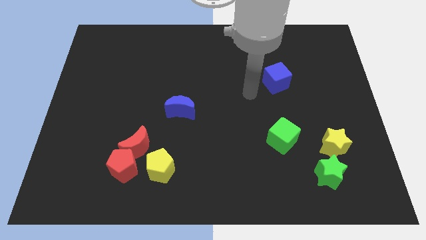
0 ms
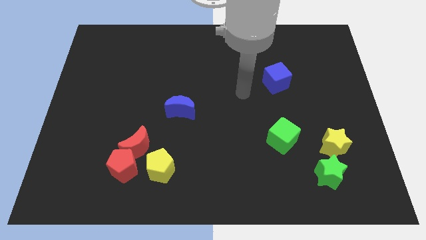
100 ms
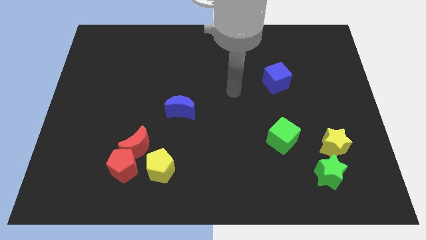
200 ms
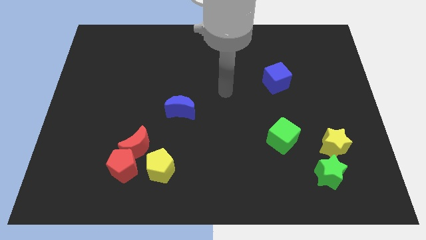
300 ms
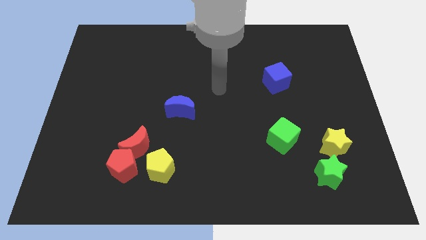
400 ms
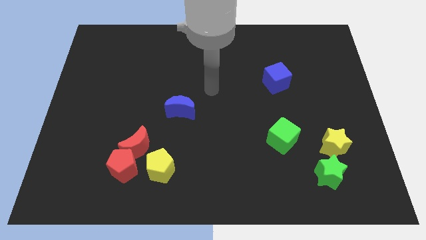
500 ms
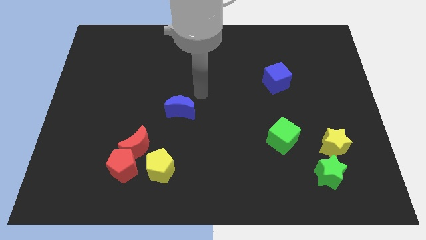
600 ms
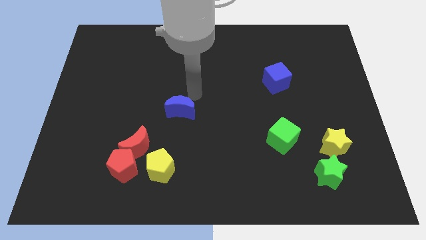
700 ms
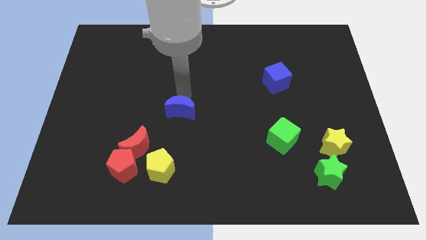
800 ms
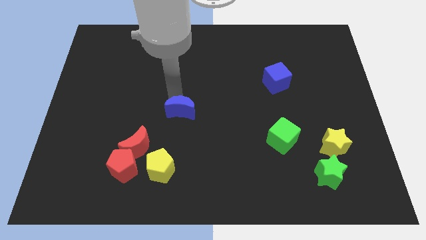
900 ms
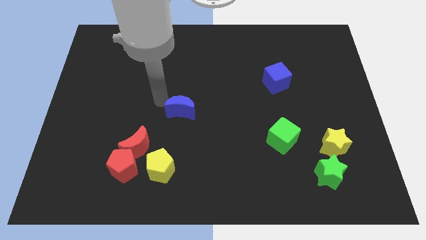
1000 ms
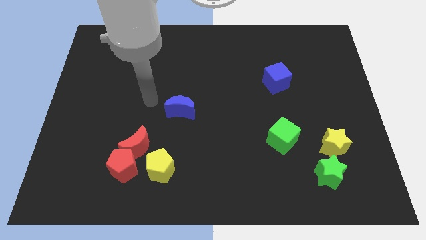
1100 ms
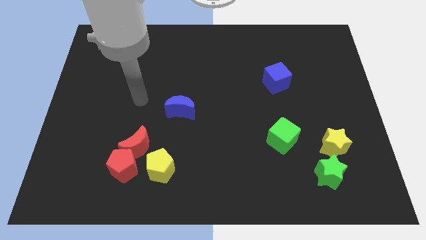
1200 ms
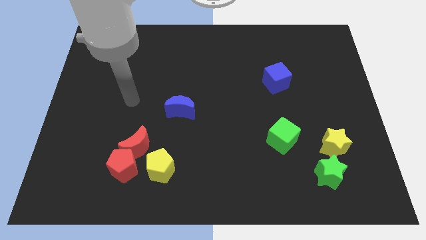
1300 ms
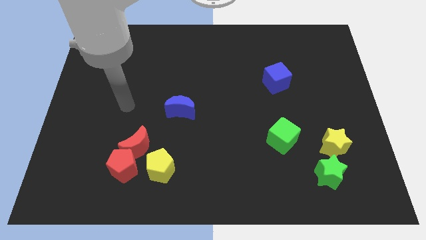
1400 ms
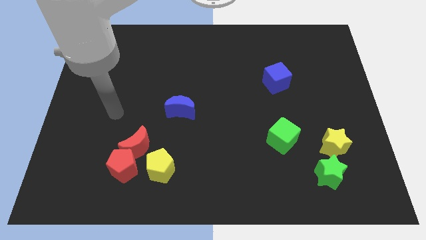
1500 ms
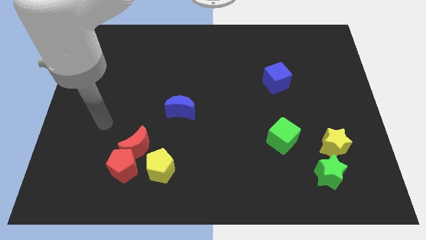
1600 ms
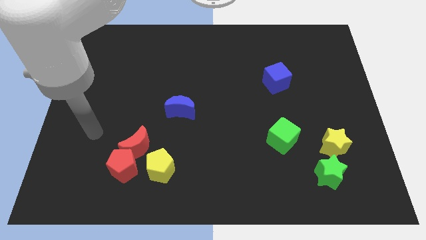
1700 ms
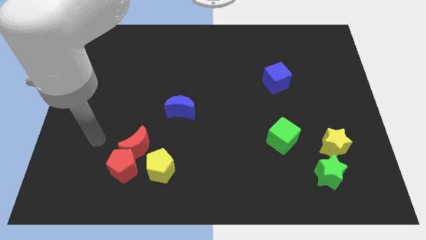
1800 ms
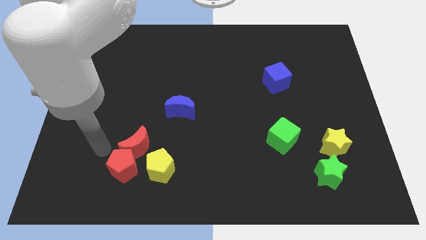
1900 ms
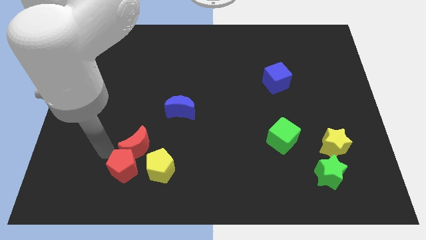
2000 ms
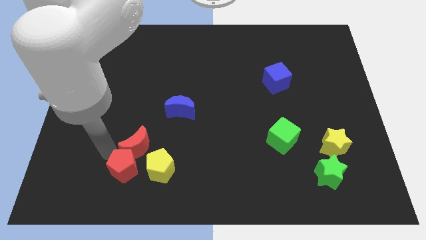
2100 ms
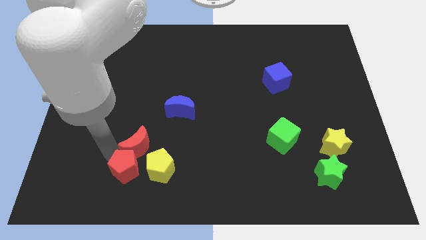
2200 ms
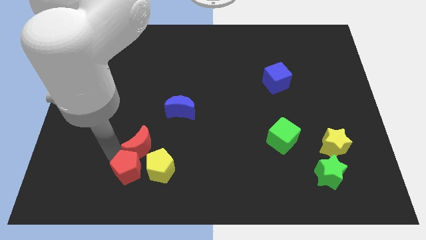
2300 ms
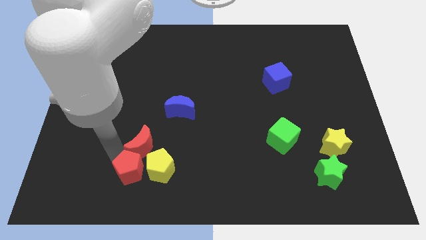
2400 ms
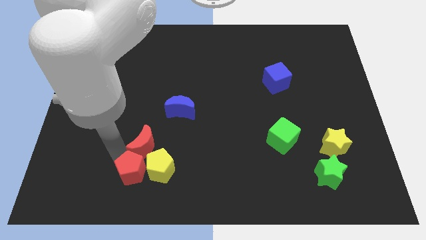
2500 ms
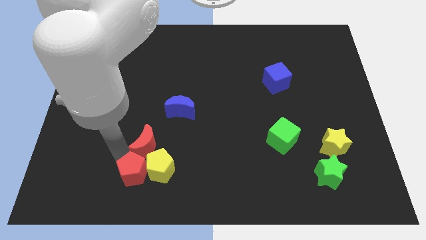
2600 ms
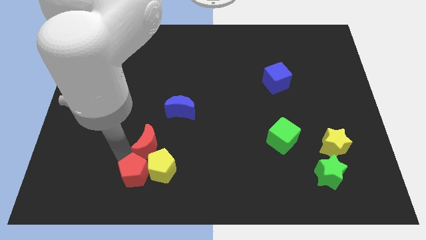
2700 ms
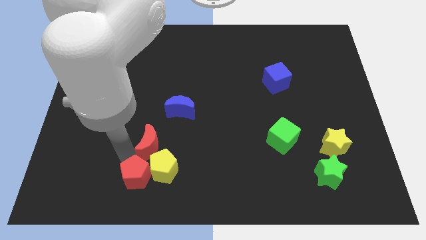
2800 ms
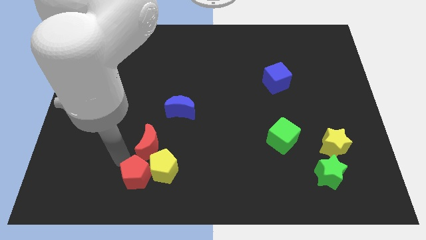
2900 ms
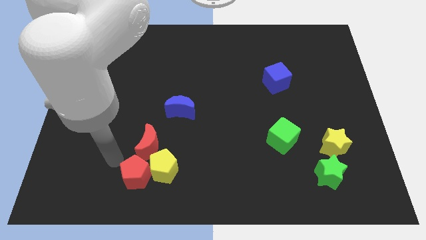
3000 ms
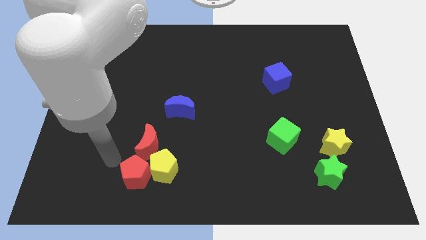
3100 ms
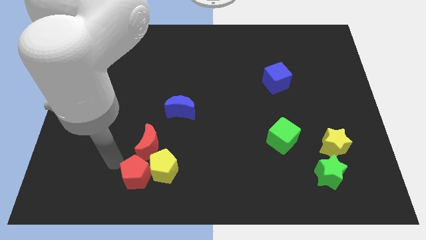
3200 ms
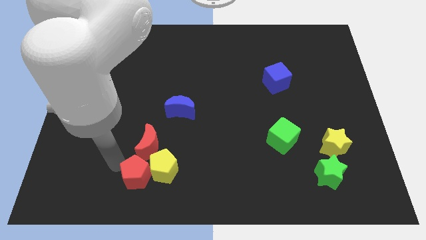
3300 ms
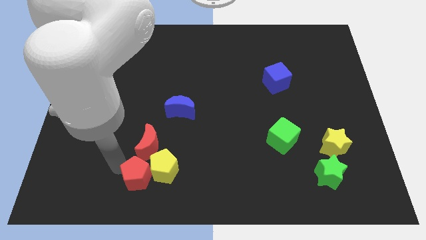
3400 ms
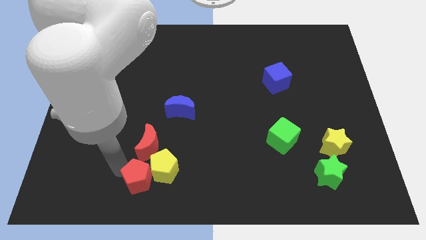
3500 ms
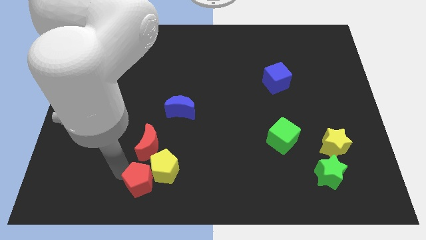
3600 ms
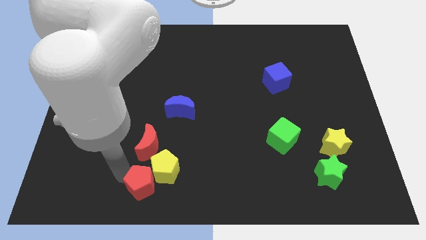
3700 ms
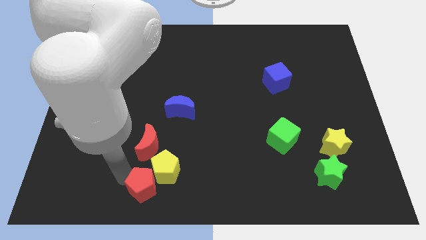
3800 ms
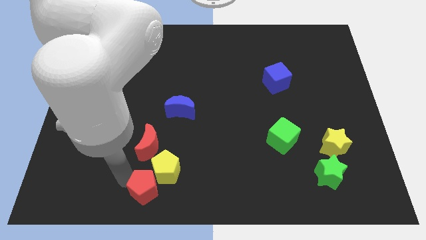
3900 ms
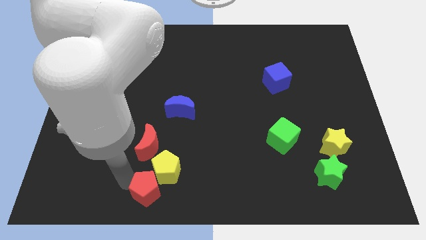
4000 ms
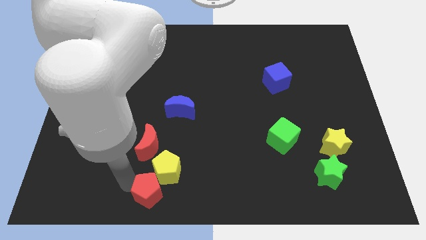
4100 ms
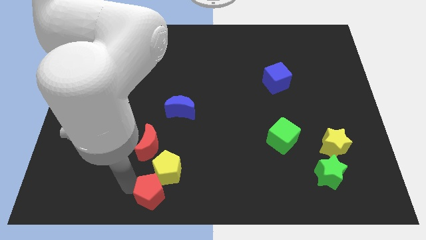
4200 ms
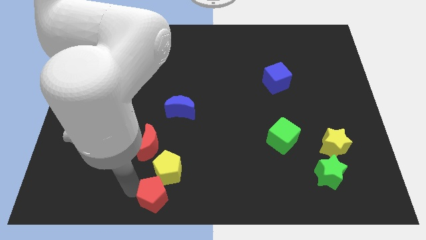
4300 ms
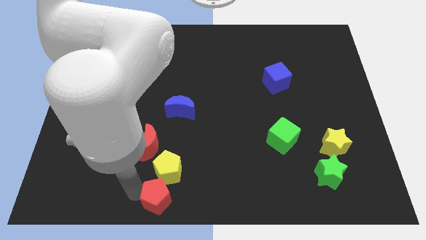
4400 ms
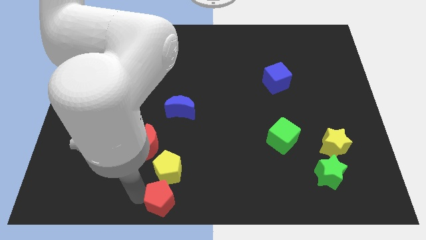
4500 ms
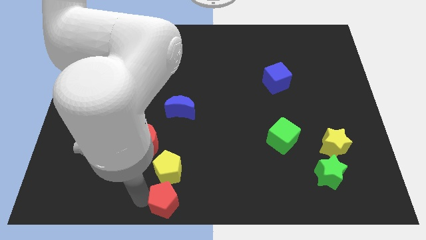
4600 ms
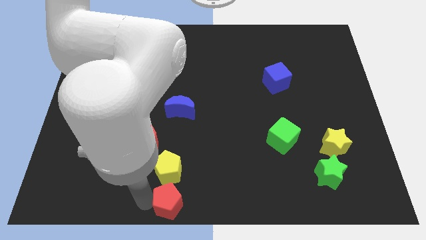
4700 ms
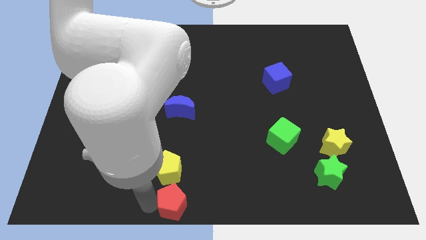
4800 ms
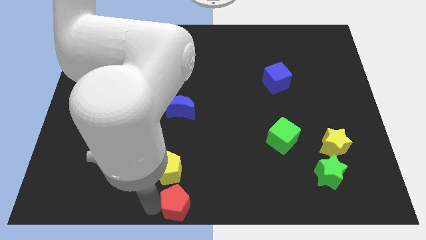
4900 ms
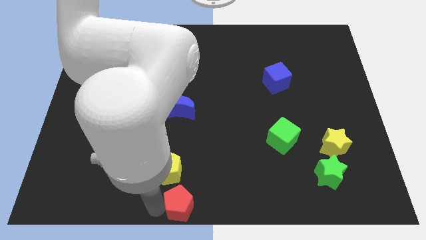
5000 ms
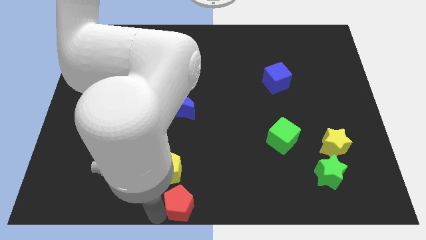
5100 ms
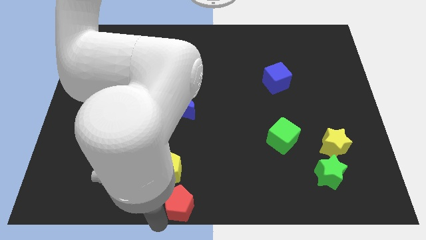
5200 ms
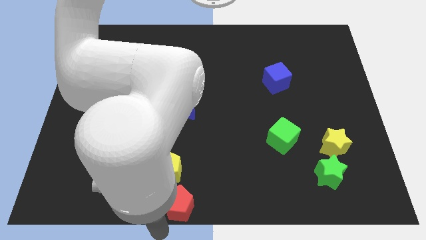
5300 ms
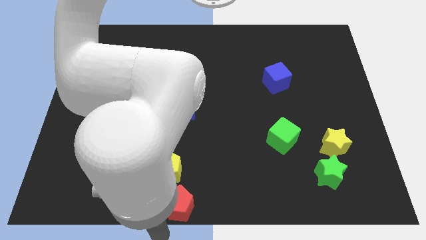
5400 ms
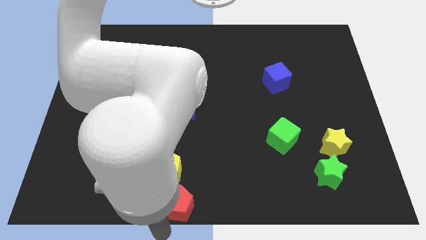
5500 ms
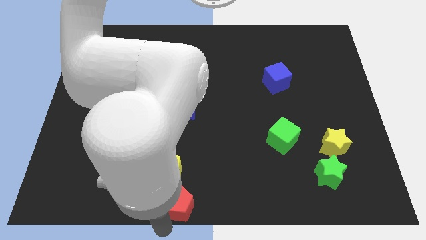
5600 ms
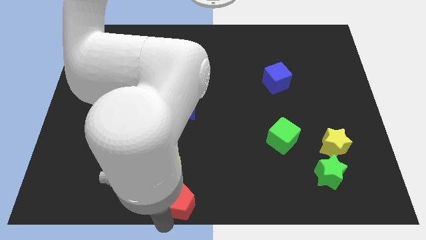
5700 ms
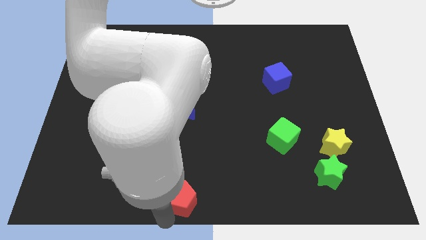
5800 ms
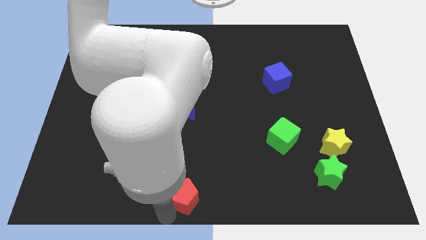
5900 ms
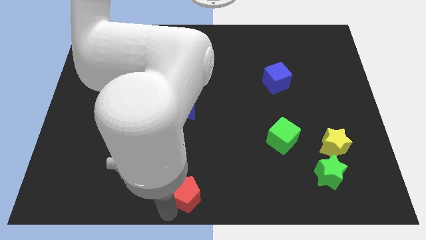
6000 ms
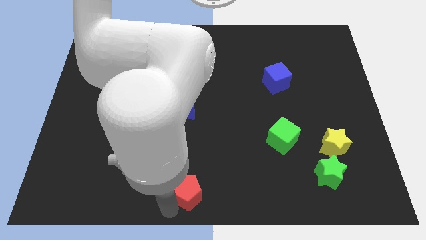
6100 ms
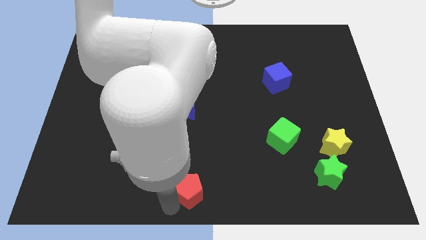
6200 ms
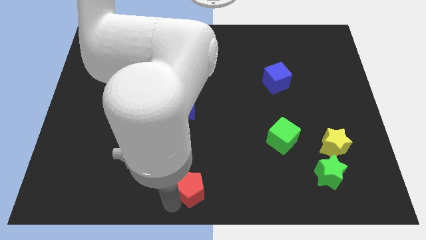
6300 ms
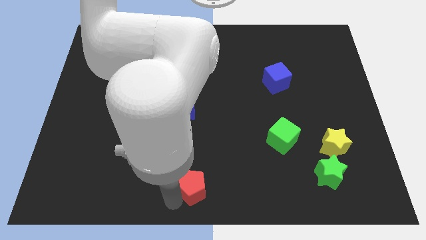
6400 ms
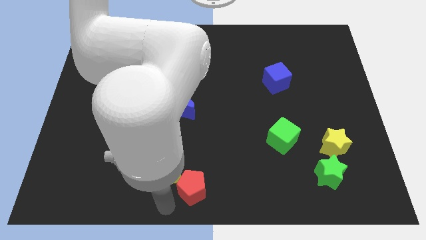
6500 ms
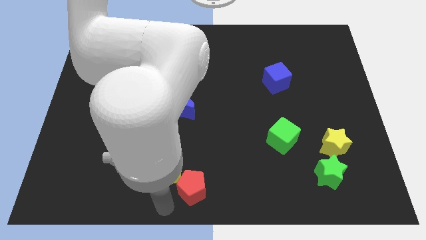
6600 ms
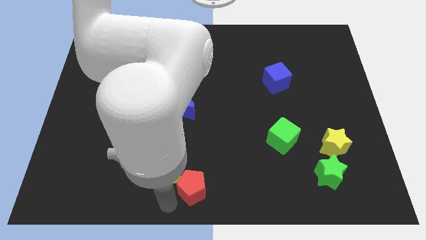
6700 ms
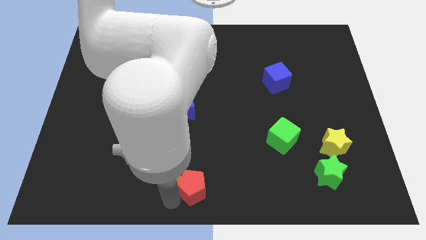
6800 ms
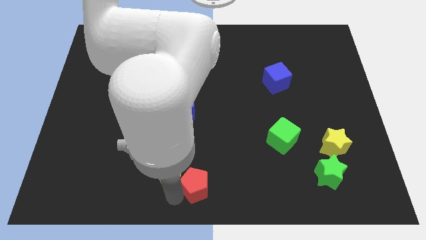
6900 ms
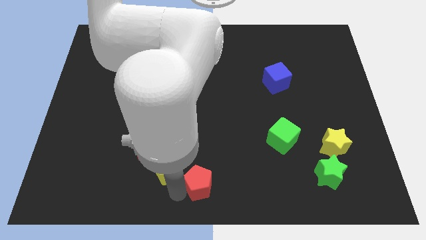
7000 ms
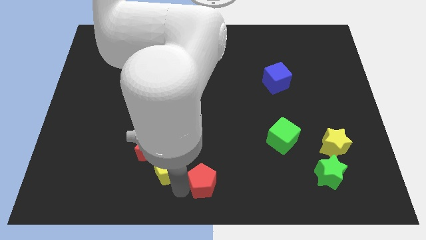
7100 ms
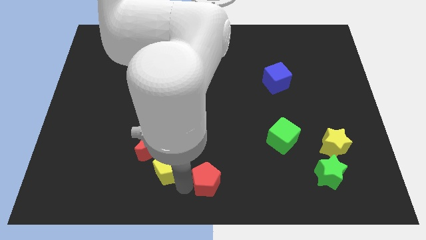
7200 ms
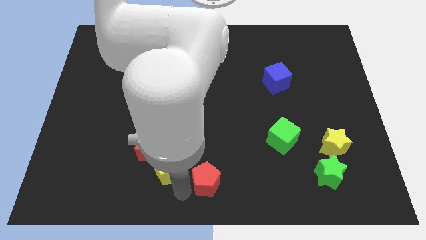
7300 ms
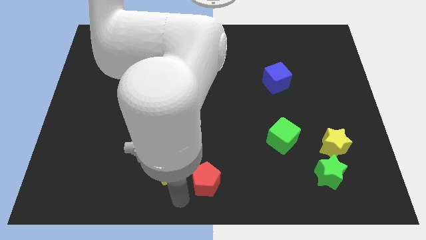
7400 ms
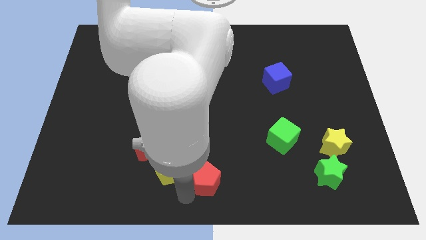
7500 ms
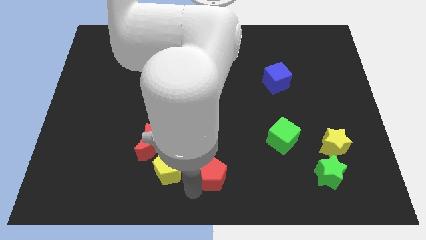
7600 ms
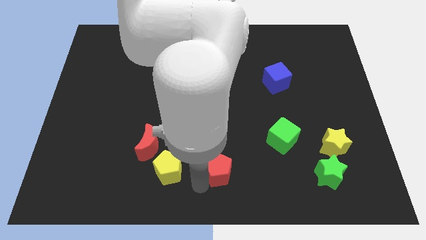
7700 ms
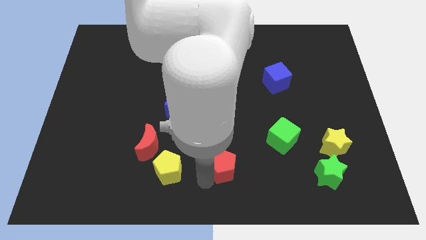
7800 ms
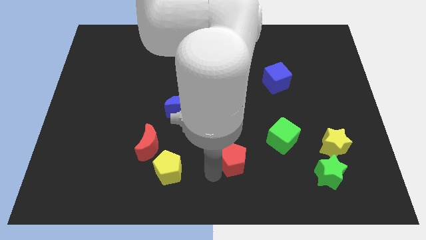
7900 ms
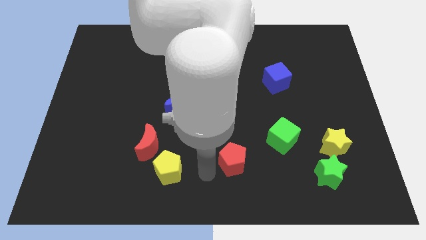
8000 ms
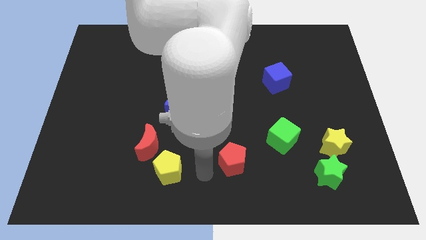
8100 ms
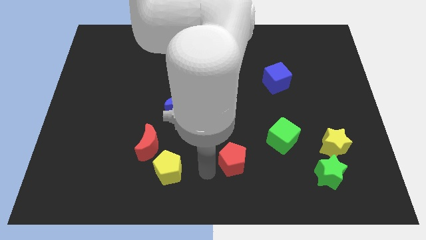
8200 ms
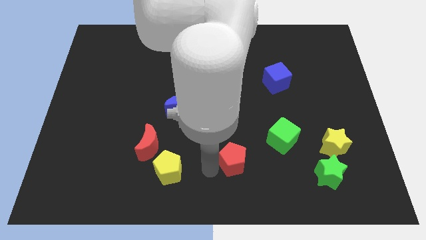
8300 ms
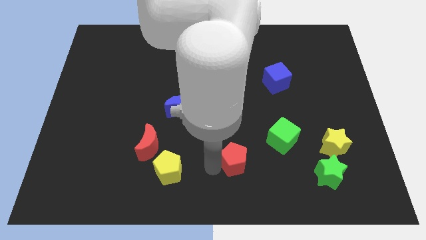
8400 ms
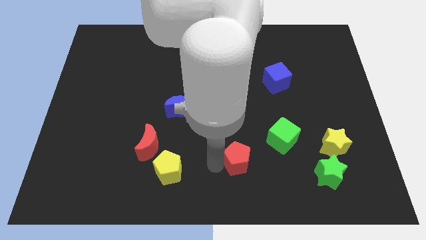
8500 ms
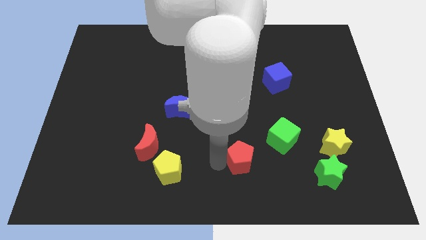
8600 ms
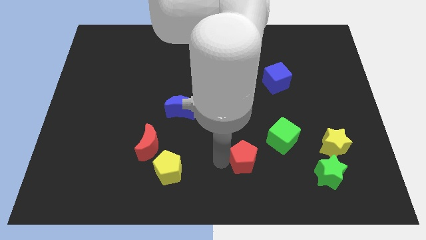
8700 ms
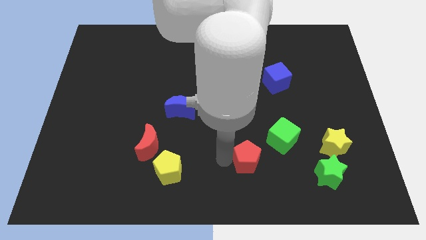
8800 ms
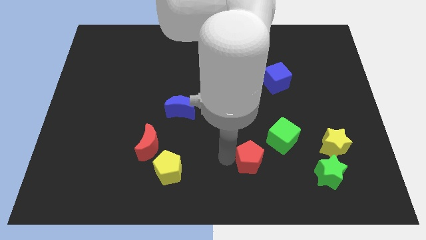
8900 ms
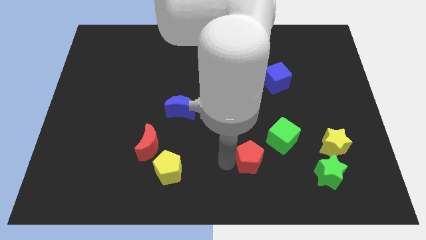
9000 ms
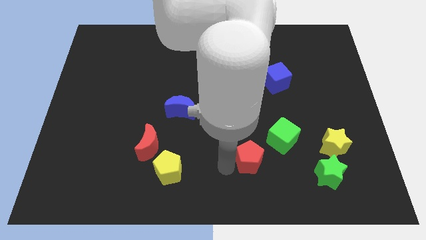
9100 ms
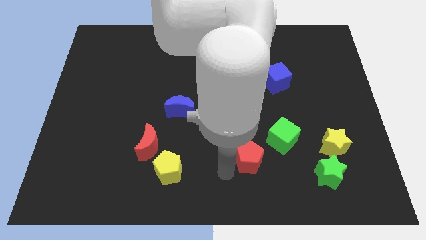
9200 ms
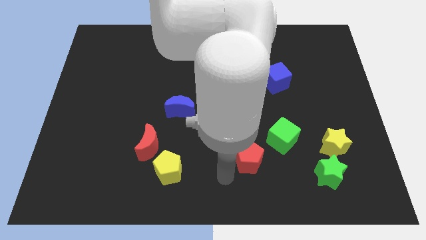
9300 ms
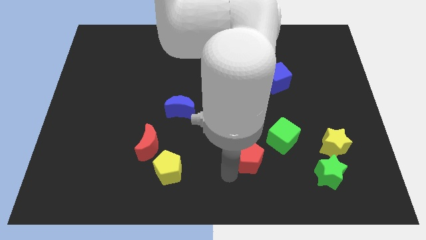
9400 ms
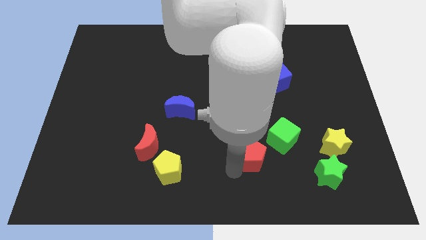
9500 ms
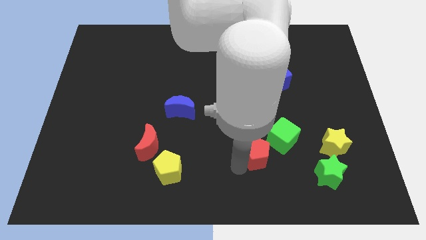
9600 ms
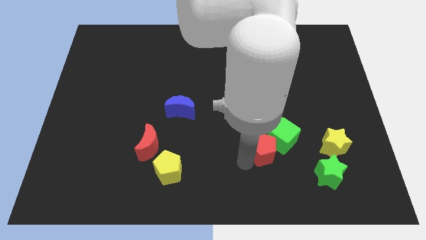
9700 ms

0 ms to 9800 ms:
put the red pentagon towards the green cube
